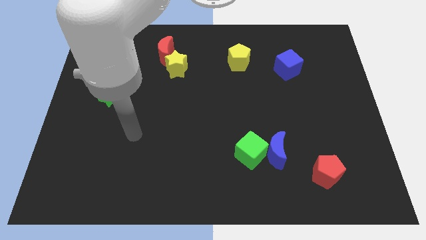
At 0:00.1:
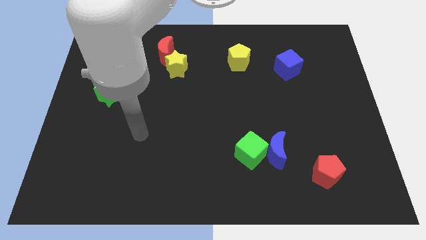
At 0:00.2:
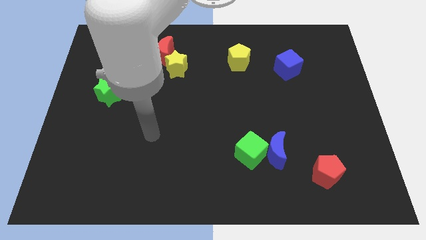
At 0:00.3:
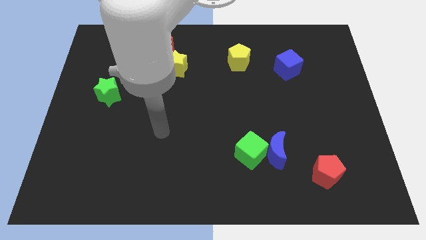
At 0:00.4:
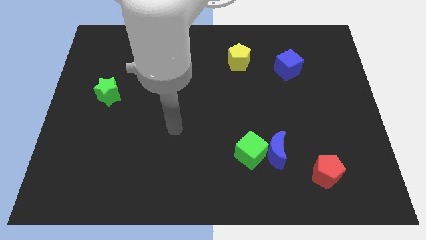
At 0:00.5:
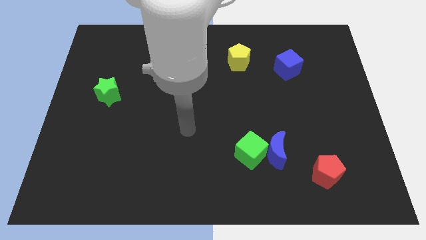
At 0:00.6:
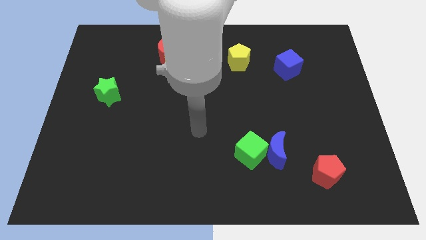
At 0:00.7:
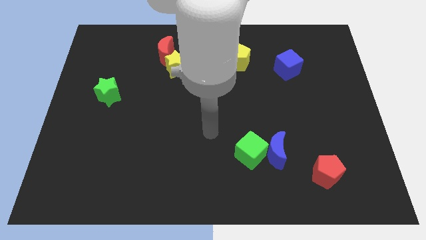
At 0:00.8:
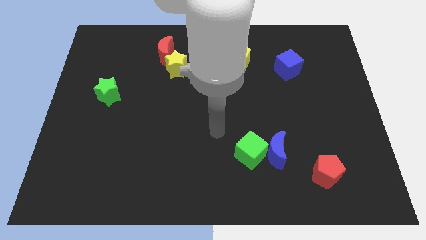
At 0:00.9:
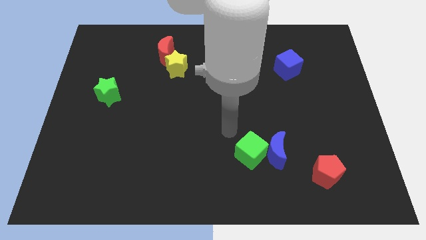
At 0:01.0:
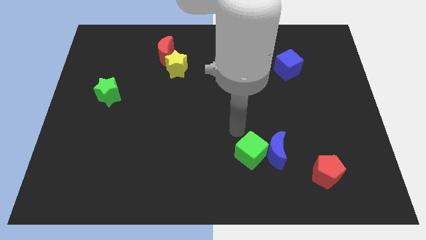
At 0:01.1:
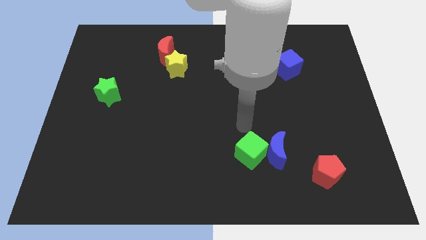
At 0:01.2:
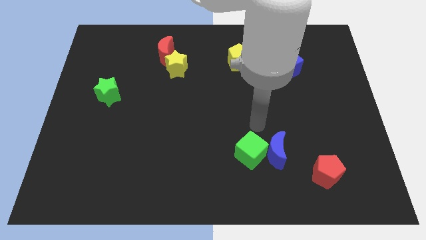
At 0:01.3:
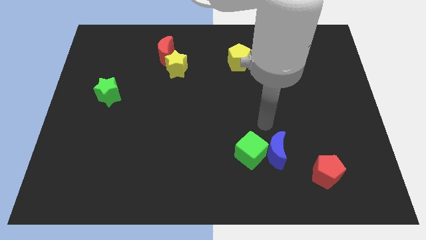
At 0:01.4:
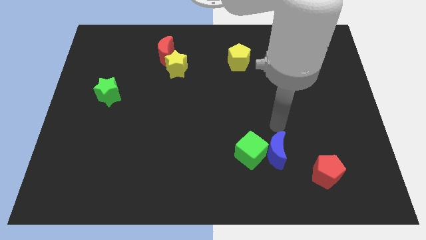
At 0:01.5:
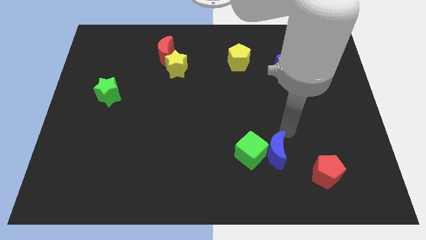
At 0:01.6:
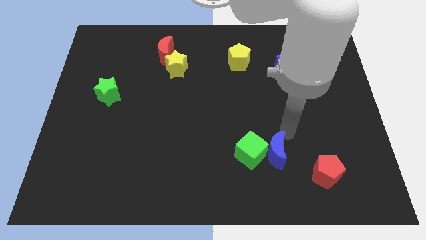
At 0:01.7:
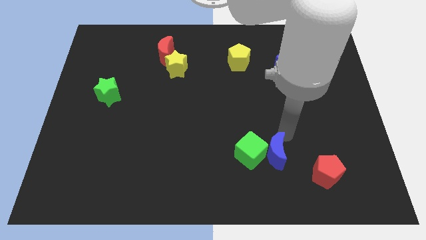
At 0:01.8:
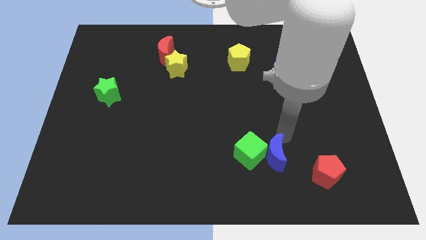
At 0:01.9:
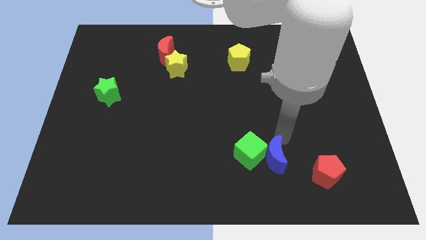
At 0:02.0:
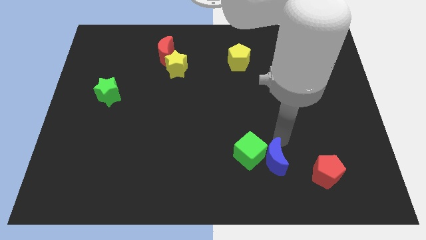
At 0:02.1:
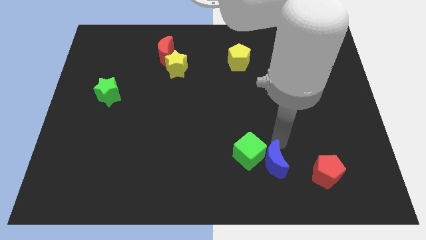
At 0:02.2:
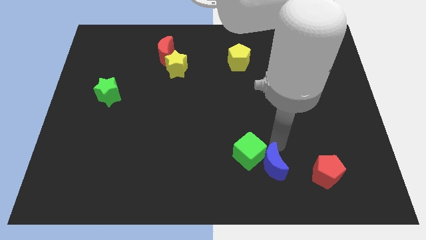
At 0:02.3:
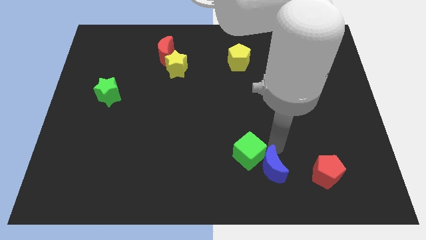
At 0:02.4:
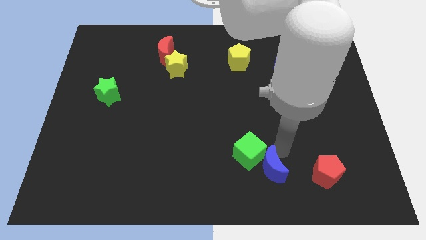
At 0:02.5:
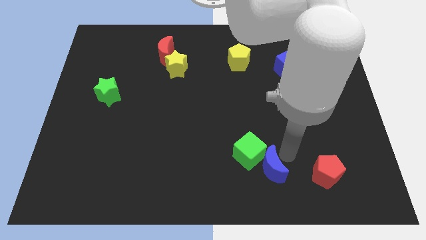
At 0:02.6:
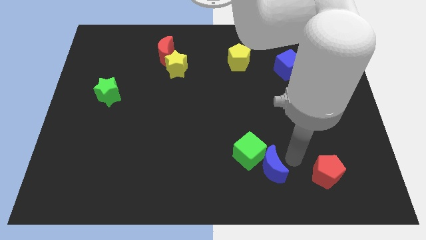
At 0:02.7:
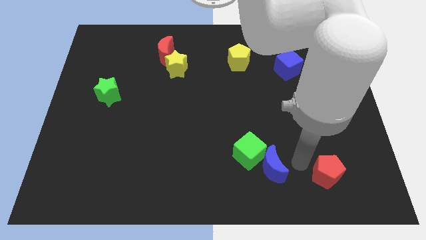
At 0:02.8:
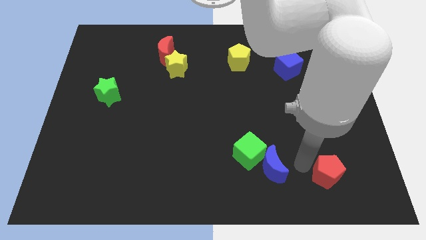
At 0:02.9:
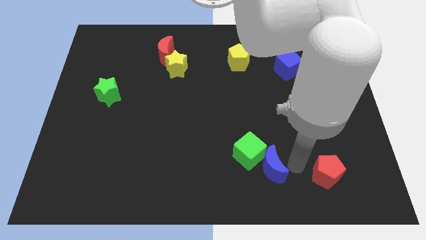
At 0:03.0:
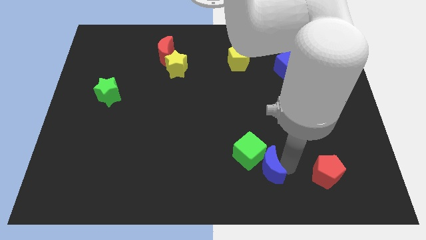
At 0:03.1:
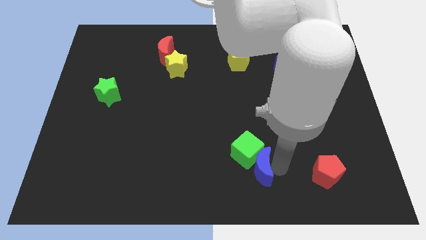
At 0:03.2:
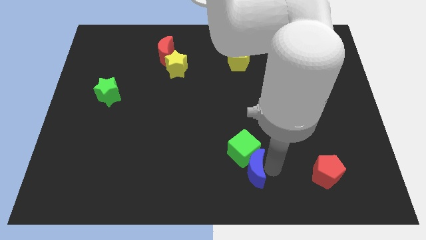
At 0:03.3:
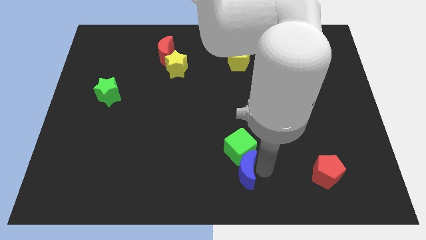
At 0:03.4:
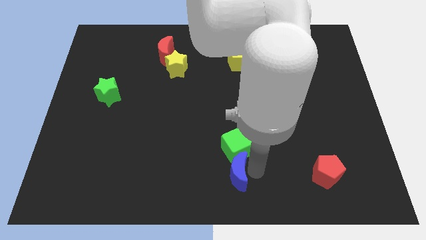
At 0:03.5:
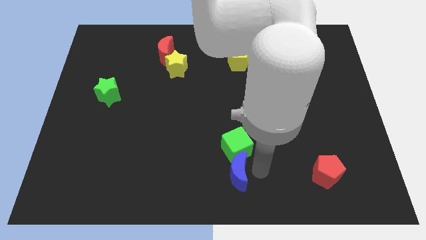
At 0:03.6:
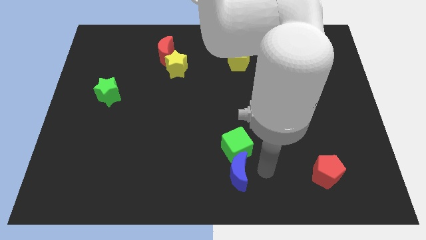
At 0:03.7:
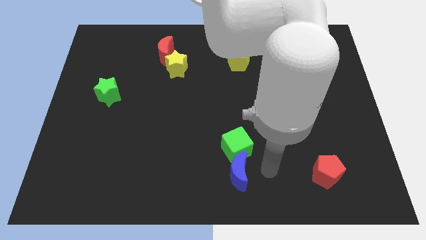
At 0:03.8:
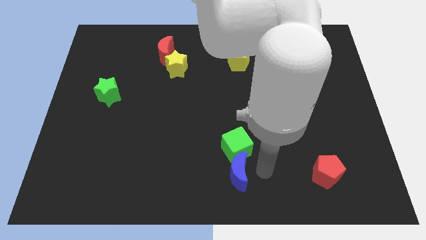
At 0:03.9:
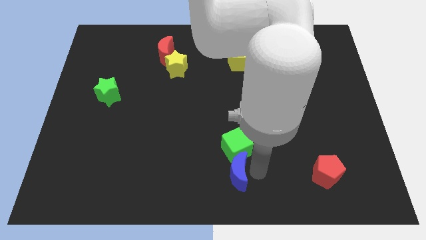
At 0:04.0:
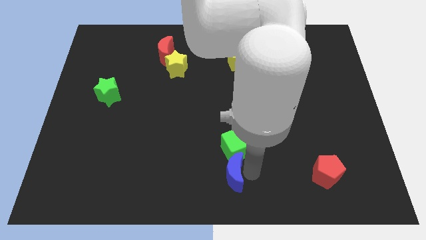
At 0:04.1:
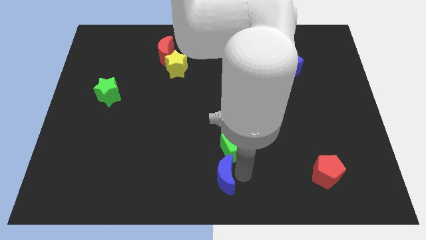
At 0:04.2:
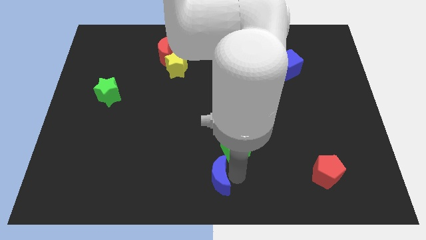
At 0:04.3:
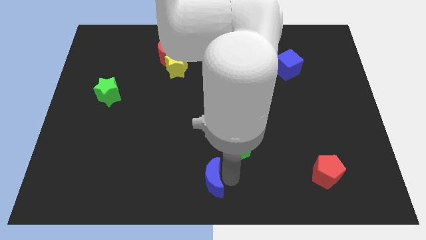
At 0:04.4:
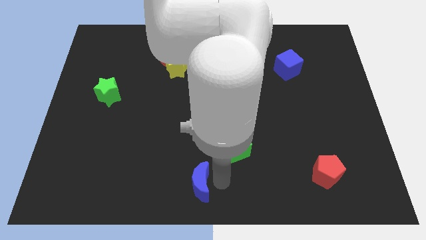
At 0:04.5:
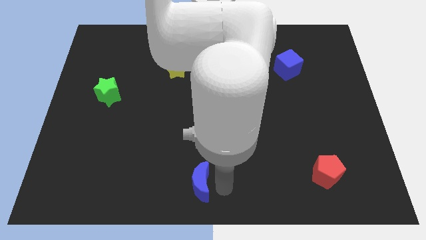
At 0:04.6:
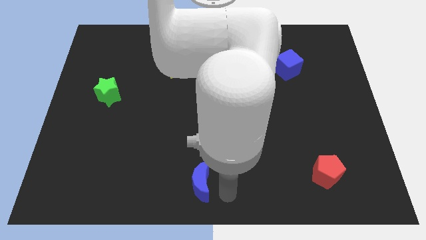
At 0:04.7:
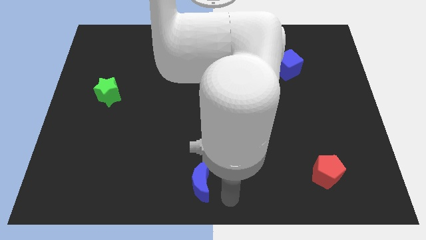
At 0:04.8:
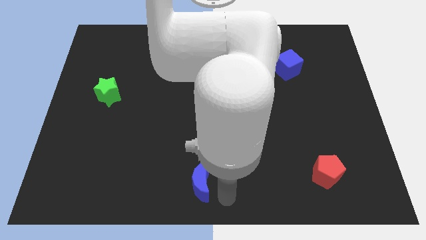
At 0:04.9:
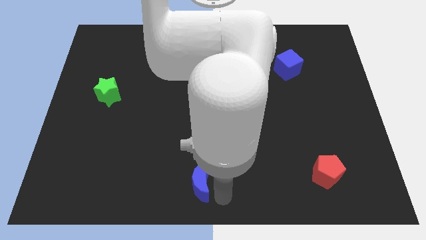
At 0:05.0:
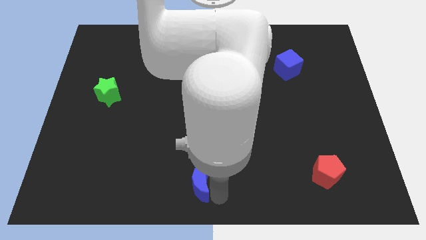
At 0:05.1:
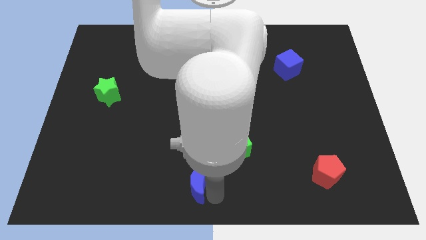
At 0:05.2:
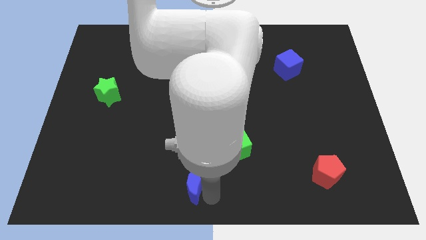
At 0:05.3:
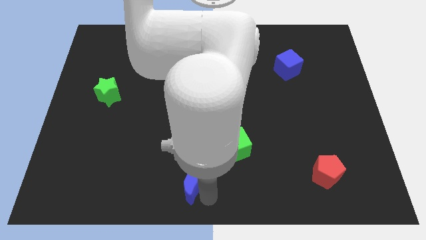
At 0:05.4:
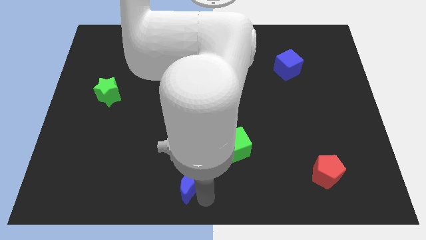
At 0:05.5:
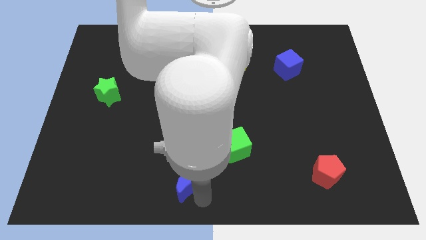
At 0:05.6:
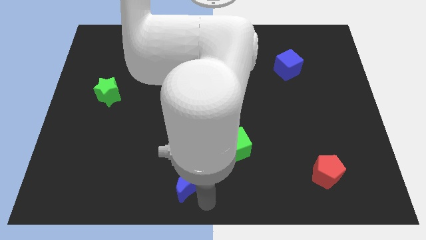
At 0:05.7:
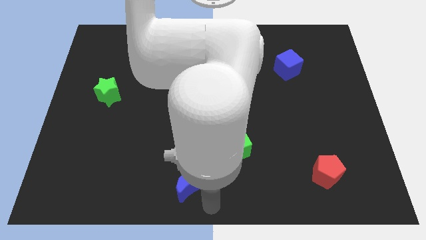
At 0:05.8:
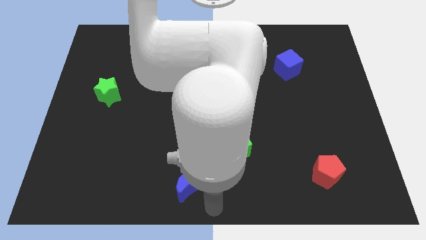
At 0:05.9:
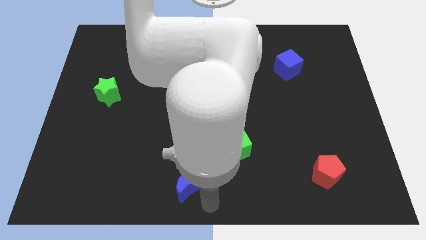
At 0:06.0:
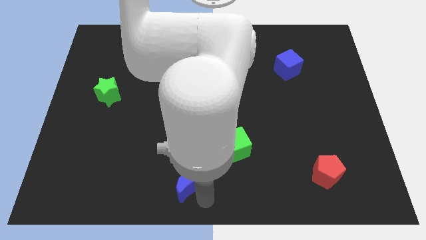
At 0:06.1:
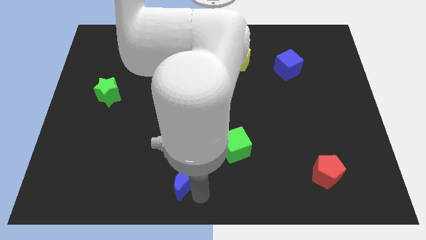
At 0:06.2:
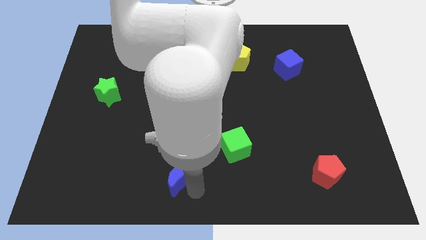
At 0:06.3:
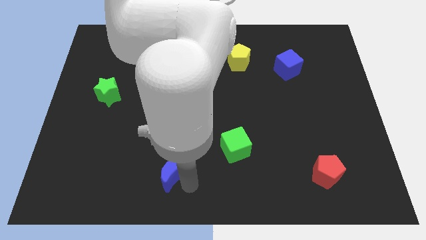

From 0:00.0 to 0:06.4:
slide the blue moon to the left

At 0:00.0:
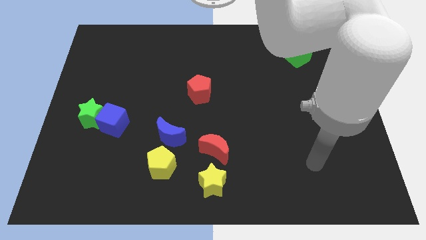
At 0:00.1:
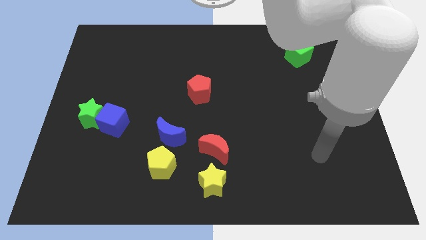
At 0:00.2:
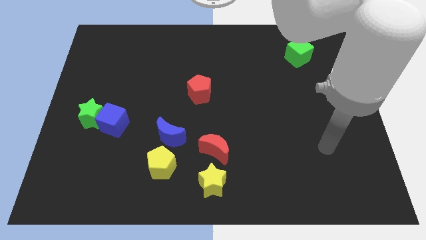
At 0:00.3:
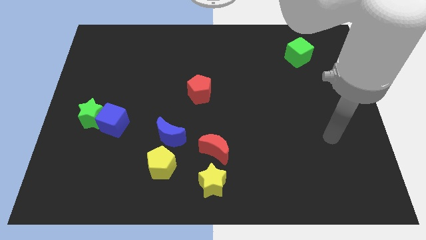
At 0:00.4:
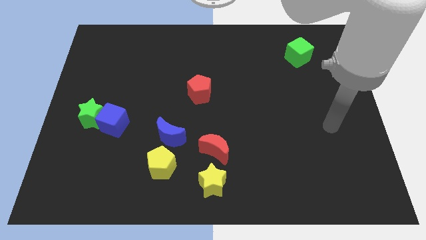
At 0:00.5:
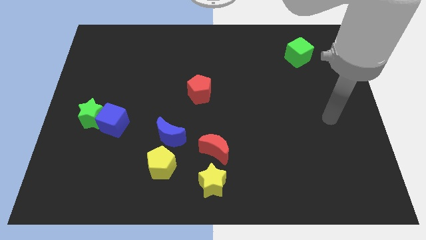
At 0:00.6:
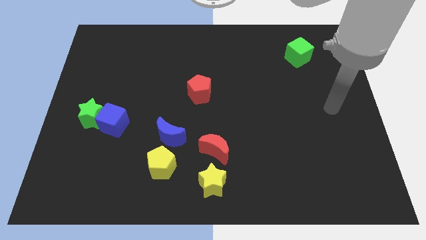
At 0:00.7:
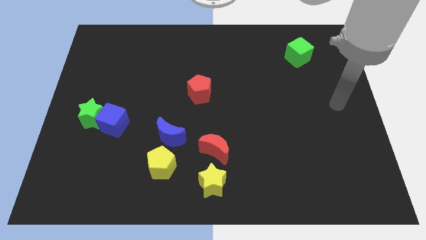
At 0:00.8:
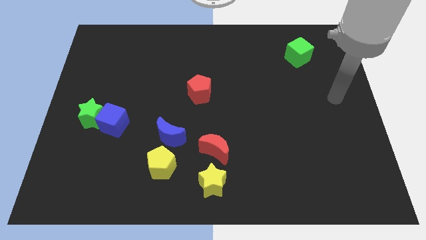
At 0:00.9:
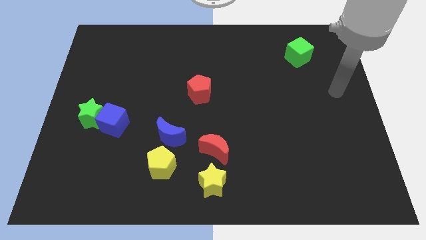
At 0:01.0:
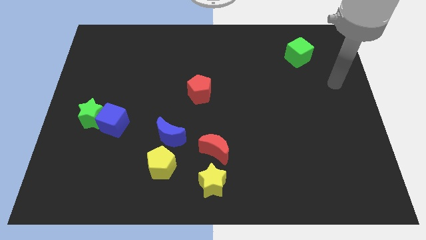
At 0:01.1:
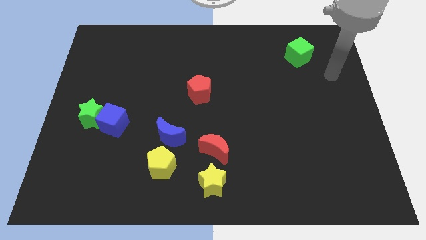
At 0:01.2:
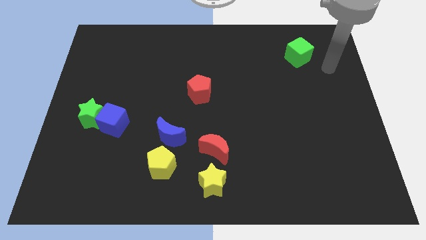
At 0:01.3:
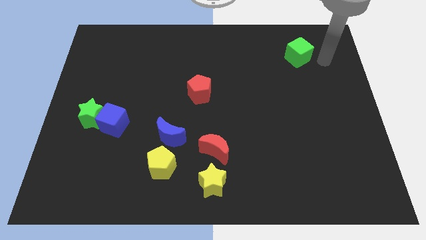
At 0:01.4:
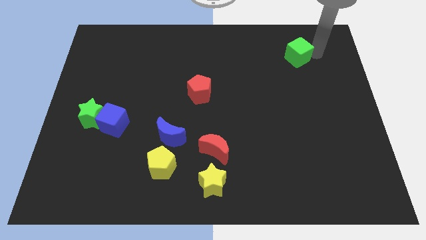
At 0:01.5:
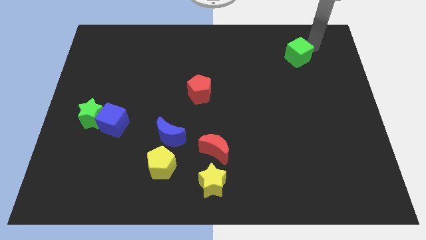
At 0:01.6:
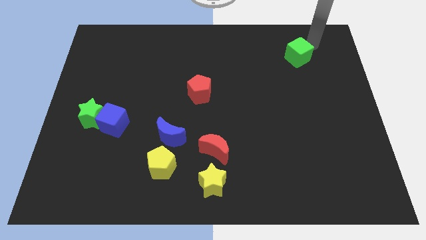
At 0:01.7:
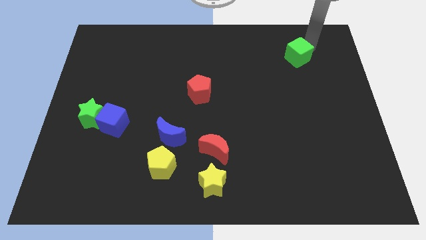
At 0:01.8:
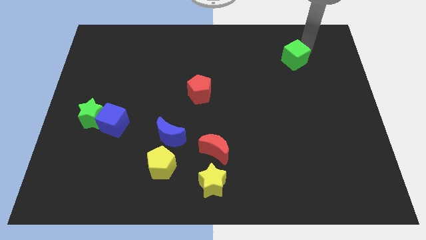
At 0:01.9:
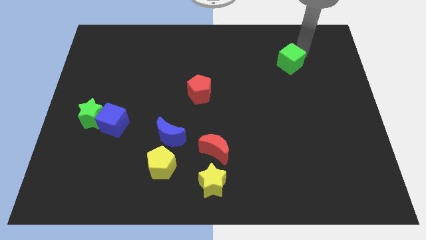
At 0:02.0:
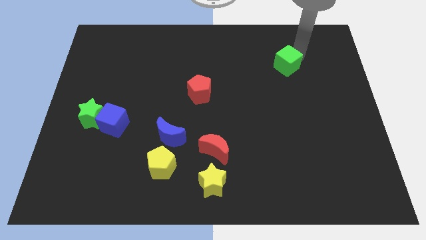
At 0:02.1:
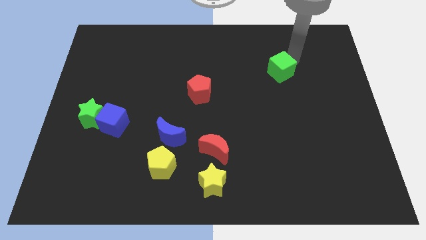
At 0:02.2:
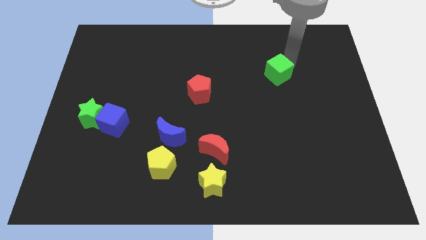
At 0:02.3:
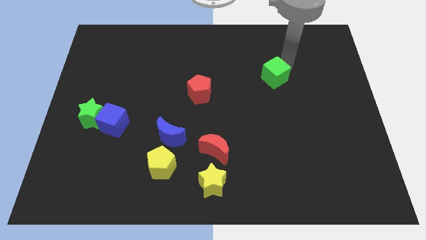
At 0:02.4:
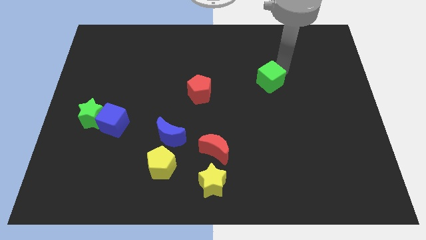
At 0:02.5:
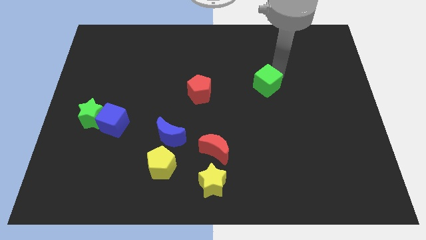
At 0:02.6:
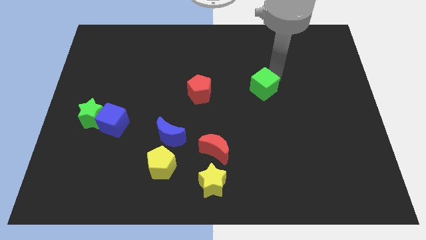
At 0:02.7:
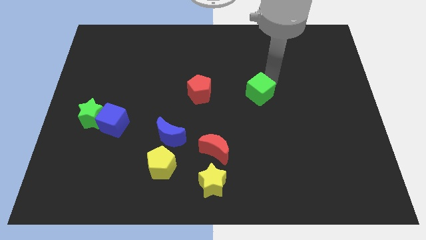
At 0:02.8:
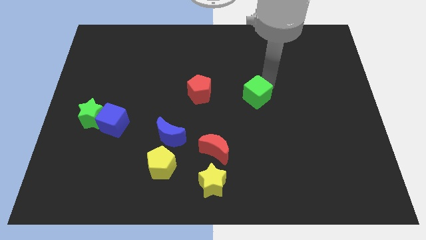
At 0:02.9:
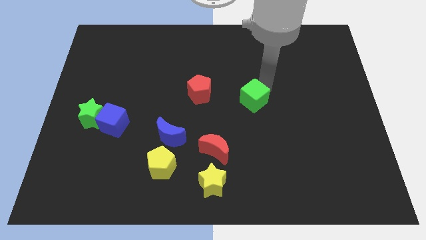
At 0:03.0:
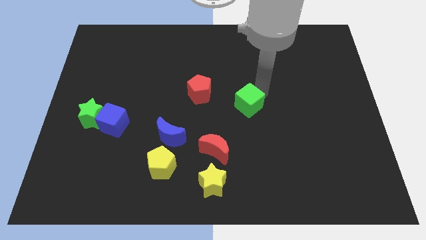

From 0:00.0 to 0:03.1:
push the green cube downwards and to the left
